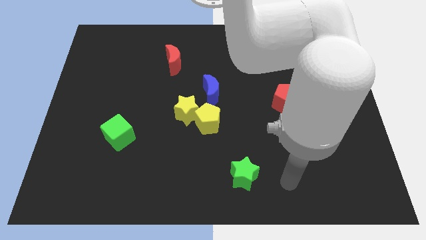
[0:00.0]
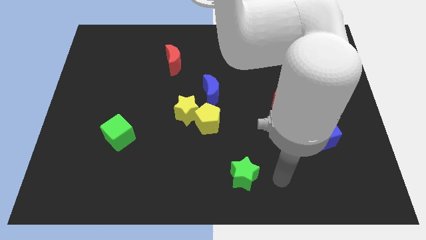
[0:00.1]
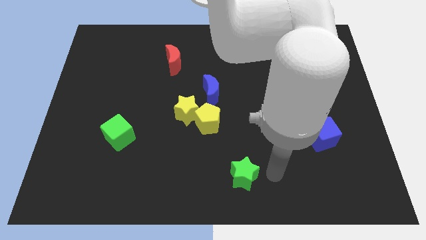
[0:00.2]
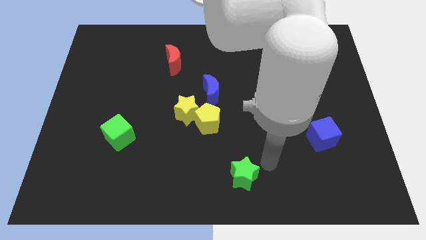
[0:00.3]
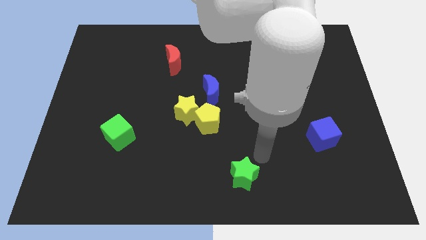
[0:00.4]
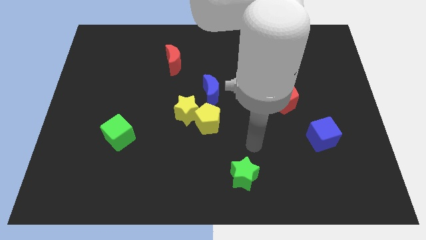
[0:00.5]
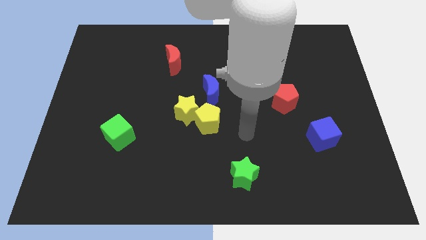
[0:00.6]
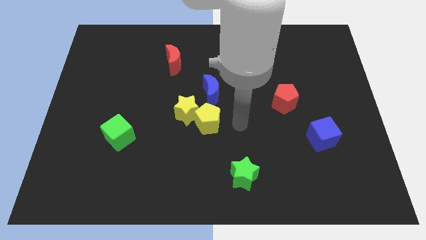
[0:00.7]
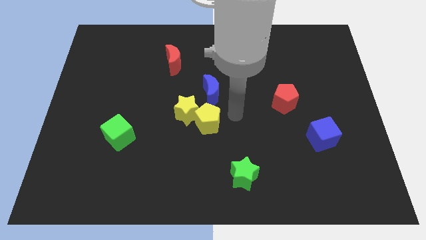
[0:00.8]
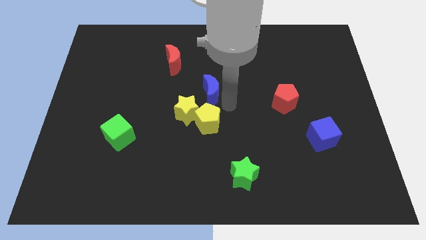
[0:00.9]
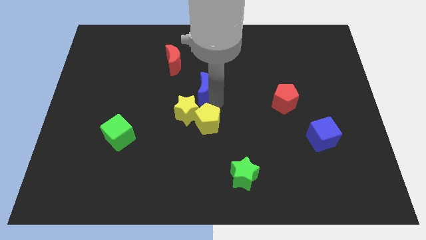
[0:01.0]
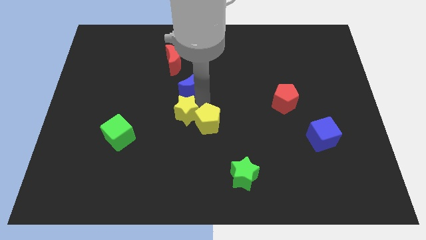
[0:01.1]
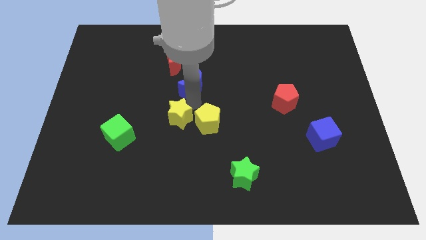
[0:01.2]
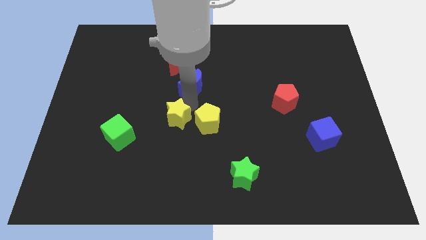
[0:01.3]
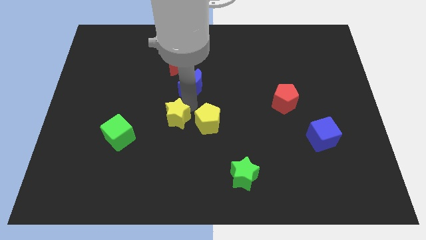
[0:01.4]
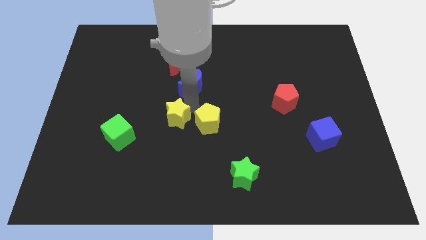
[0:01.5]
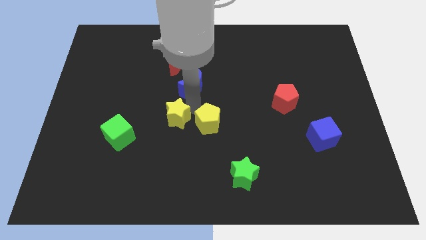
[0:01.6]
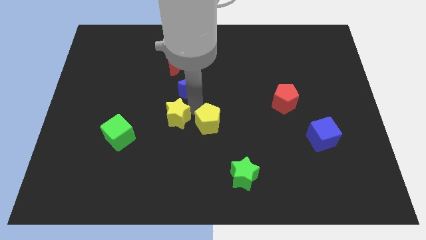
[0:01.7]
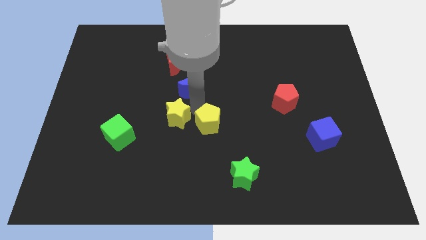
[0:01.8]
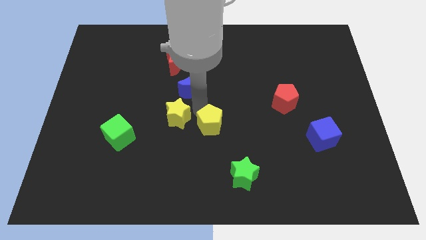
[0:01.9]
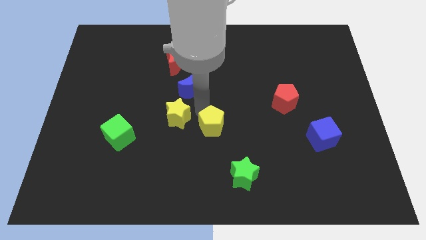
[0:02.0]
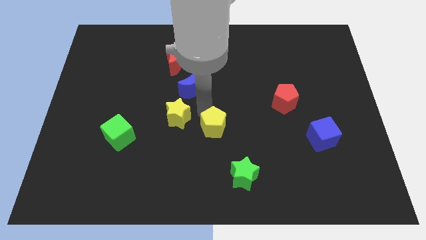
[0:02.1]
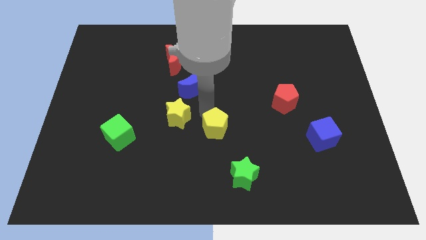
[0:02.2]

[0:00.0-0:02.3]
separate the yellow pentagon from the yellow star and blue moon

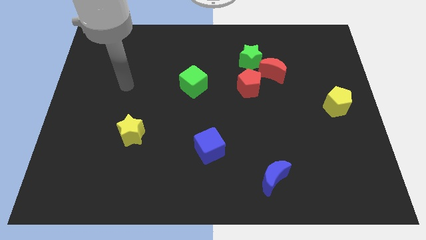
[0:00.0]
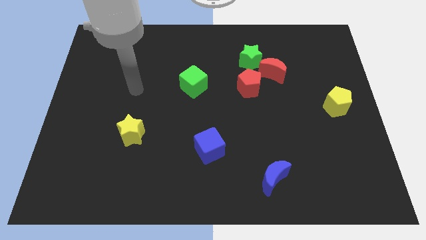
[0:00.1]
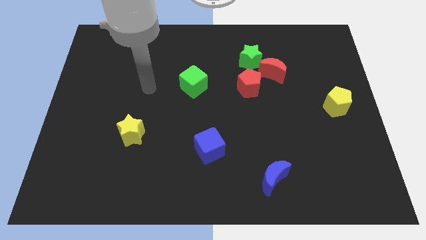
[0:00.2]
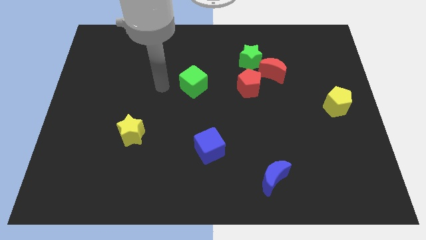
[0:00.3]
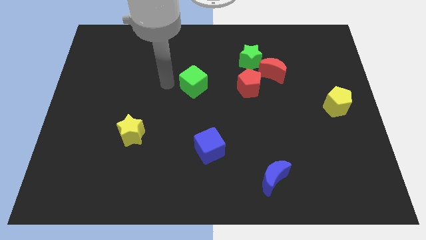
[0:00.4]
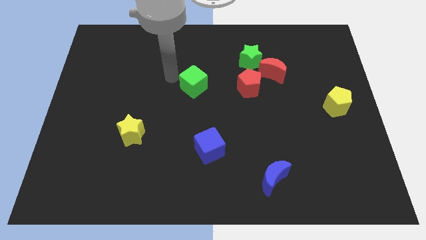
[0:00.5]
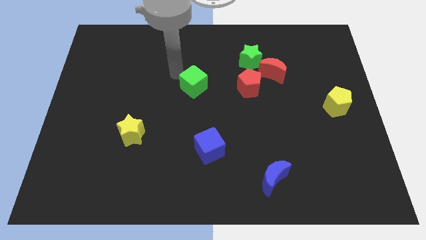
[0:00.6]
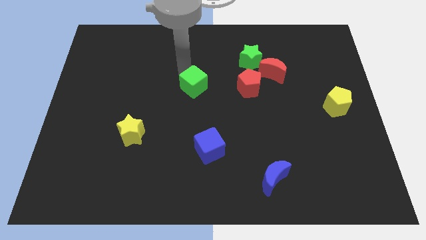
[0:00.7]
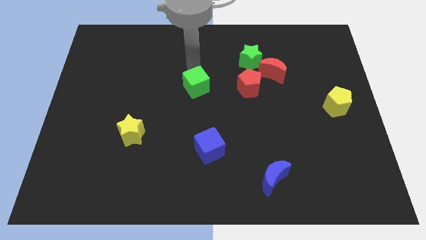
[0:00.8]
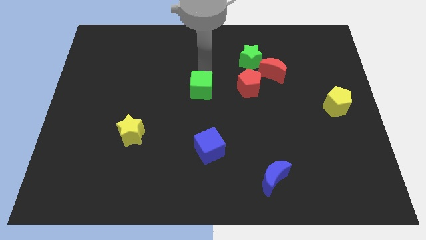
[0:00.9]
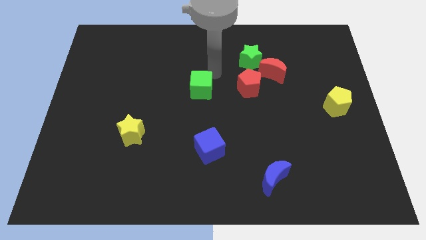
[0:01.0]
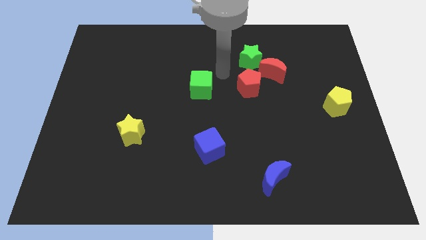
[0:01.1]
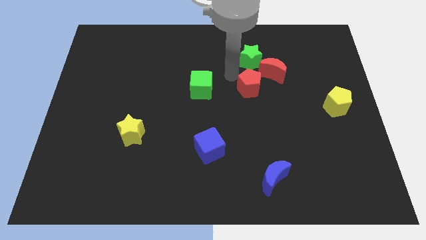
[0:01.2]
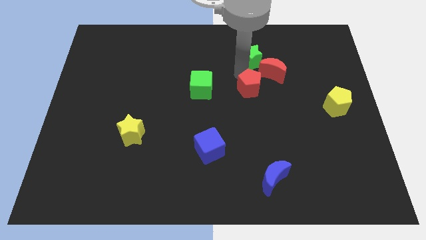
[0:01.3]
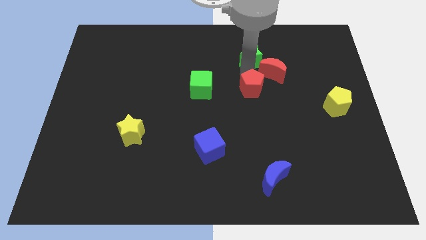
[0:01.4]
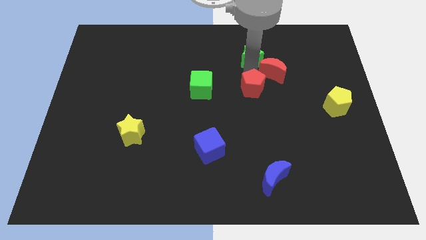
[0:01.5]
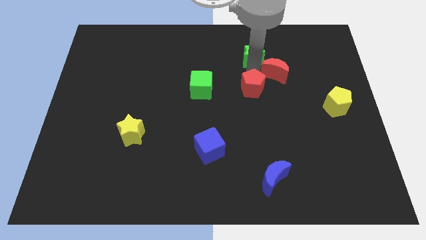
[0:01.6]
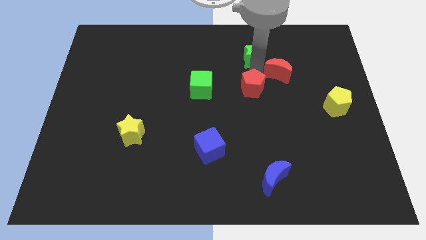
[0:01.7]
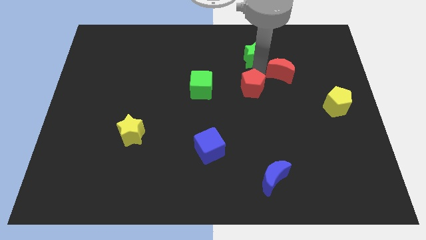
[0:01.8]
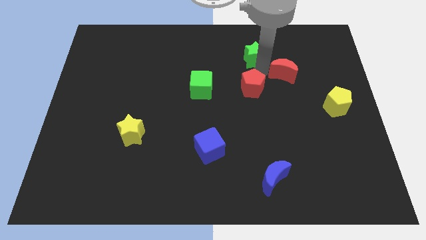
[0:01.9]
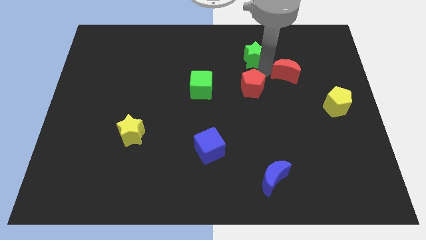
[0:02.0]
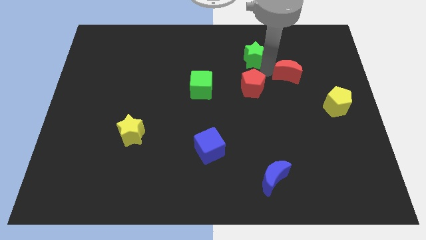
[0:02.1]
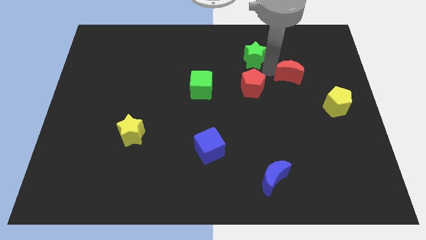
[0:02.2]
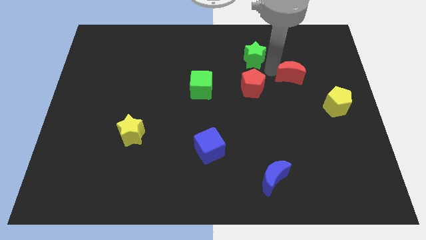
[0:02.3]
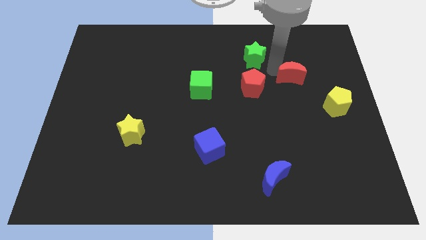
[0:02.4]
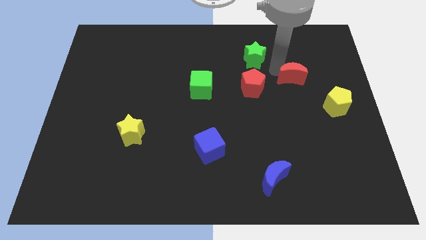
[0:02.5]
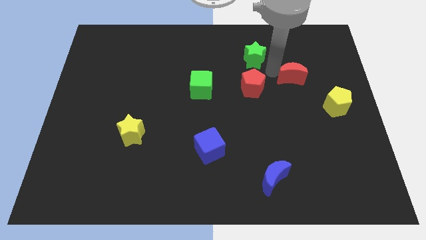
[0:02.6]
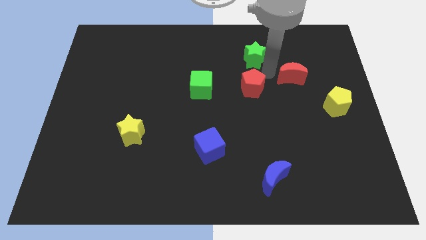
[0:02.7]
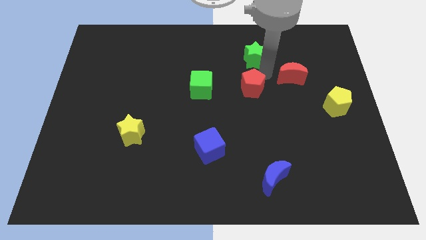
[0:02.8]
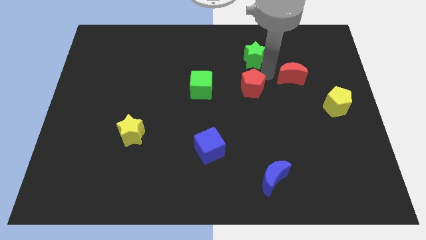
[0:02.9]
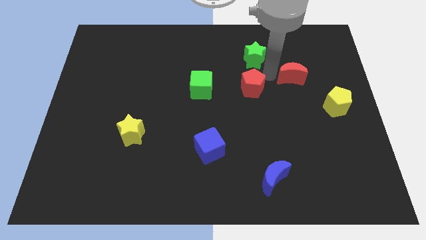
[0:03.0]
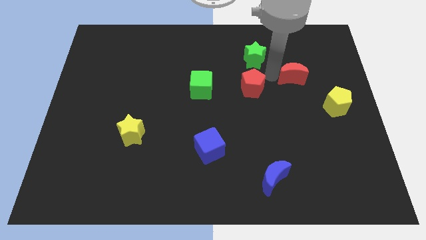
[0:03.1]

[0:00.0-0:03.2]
move the red moon away from the green star and red pentagon

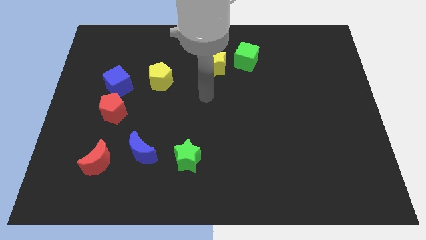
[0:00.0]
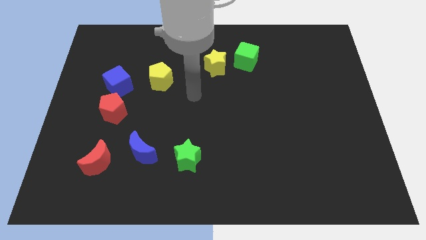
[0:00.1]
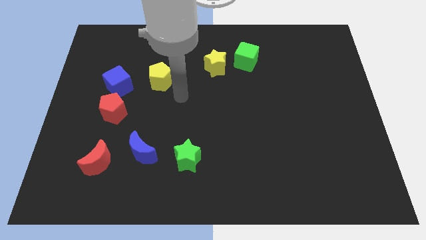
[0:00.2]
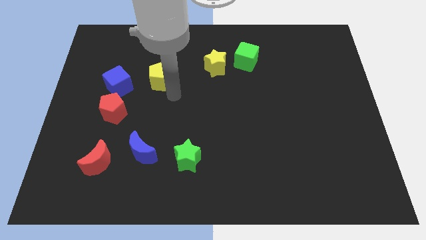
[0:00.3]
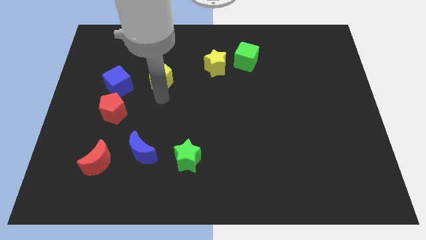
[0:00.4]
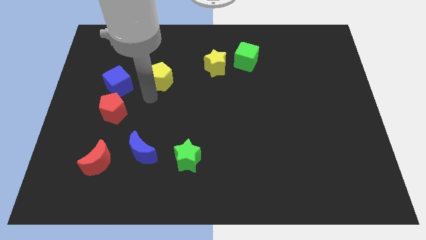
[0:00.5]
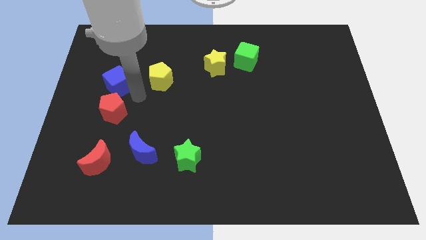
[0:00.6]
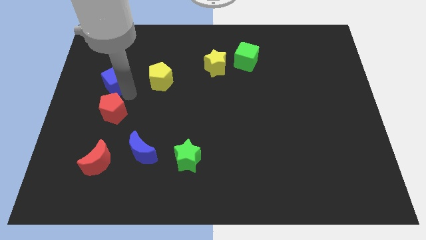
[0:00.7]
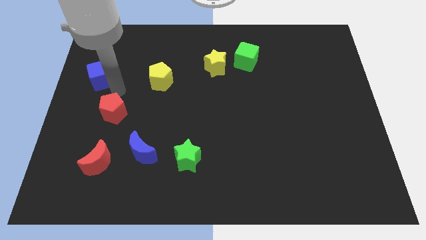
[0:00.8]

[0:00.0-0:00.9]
pull the red pentagon apart from the blue cube

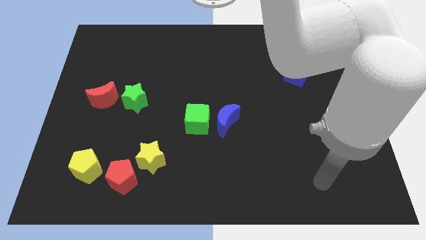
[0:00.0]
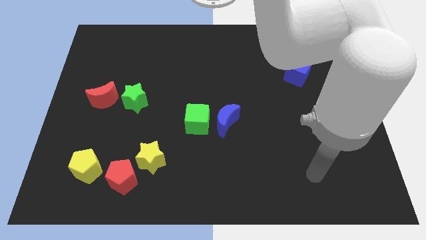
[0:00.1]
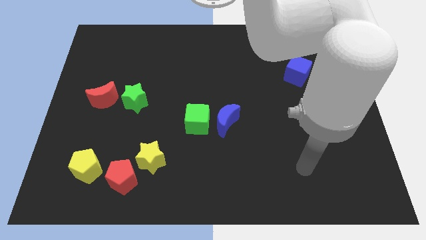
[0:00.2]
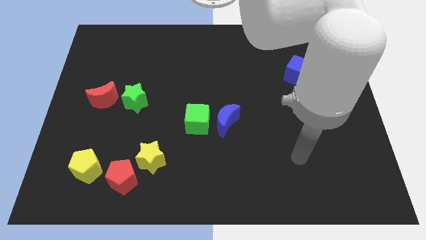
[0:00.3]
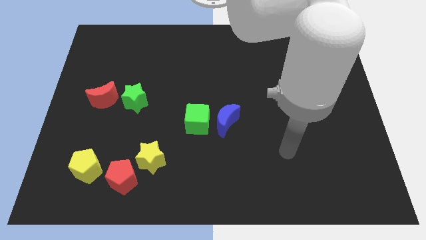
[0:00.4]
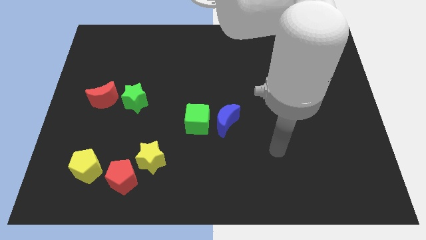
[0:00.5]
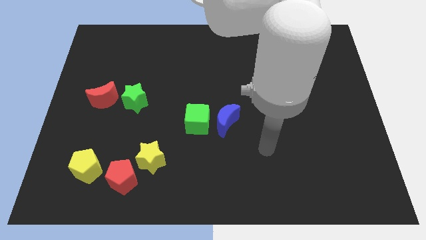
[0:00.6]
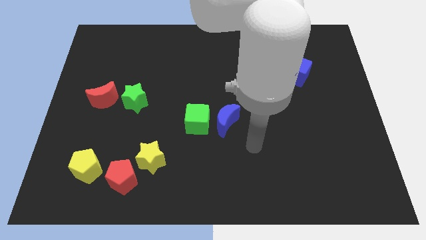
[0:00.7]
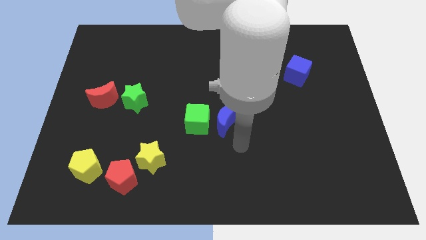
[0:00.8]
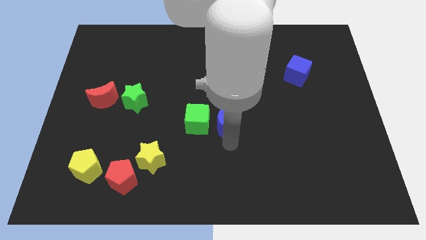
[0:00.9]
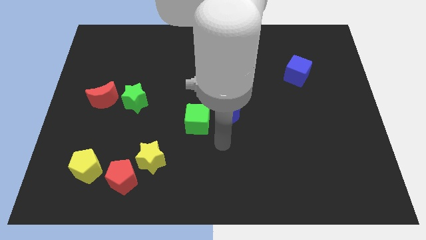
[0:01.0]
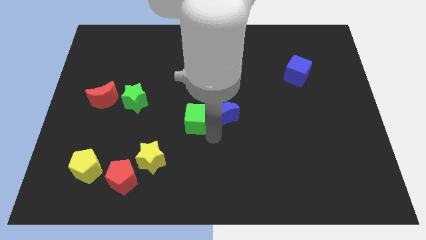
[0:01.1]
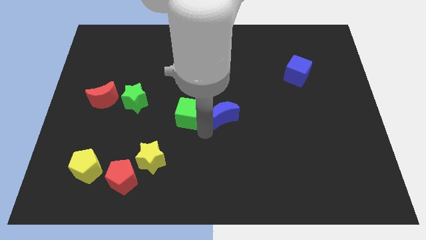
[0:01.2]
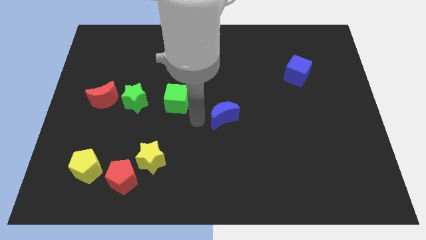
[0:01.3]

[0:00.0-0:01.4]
pull the blue moon apart from the green cube

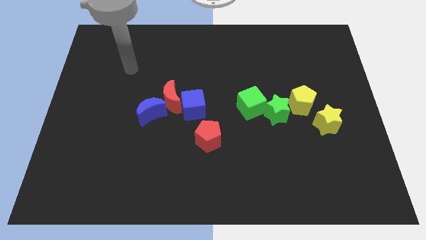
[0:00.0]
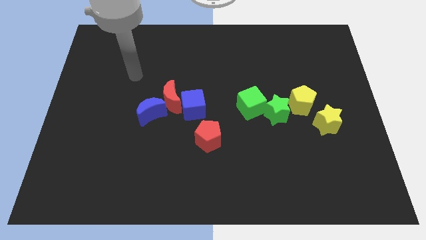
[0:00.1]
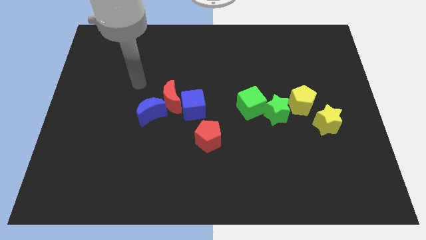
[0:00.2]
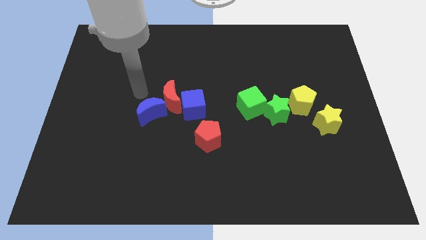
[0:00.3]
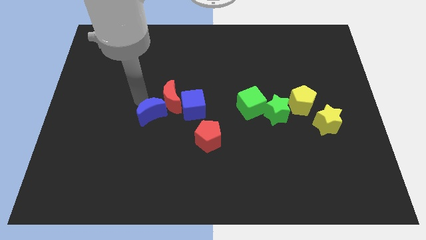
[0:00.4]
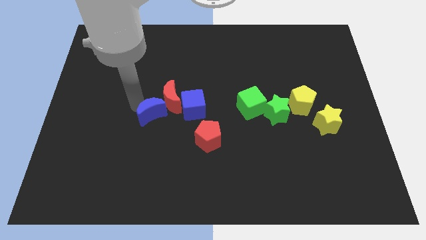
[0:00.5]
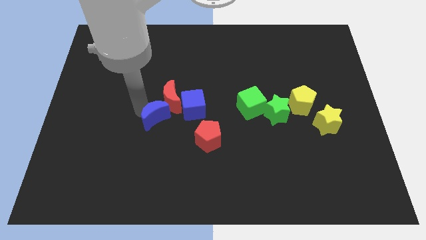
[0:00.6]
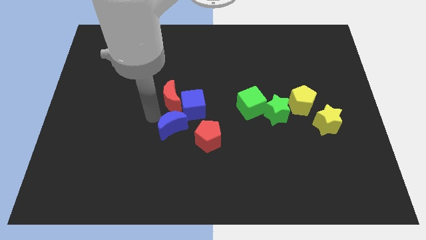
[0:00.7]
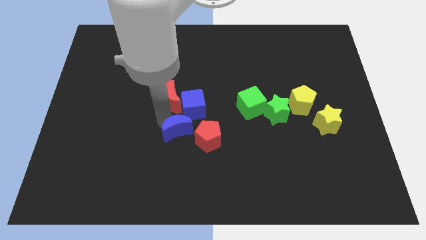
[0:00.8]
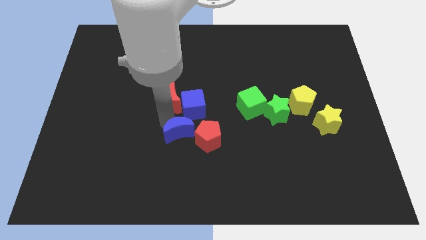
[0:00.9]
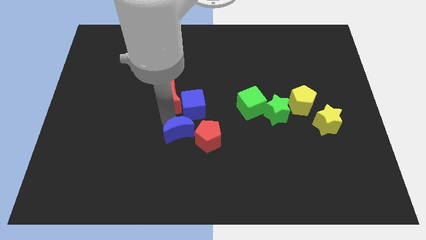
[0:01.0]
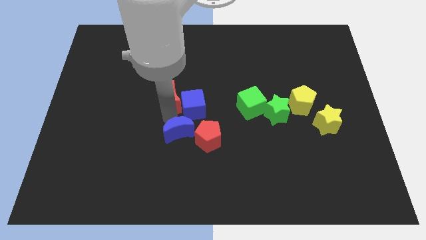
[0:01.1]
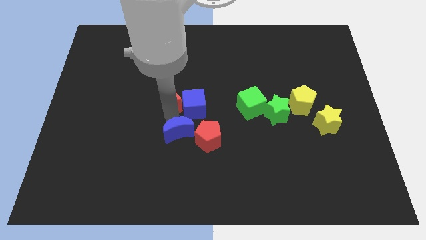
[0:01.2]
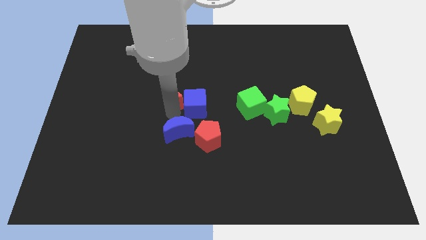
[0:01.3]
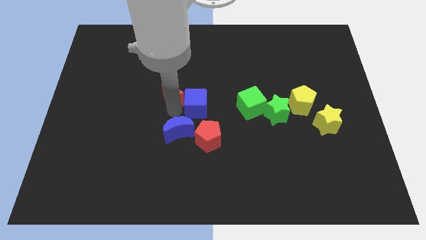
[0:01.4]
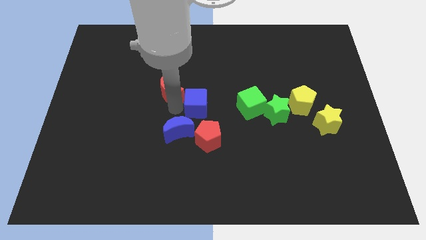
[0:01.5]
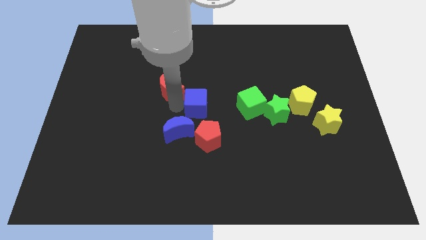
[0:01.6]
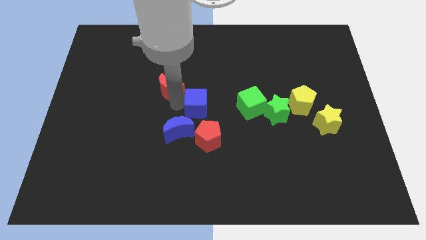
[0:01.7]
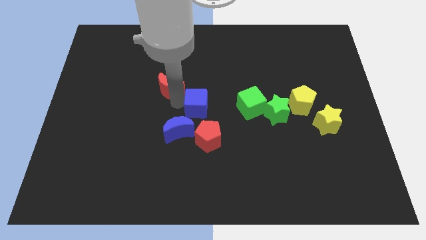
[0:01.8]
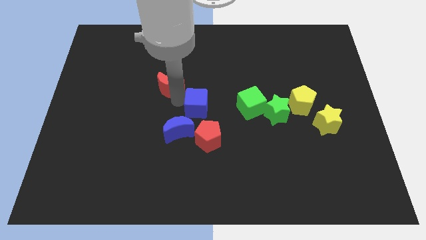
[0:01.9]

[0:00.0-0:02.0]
move the red moon away from the blue cube and blue moon
